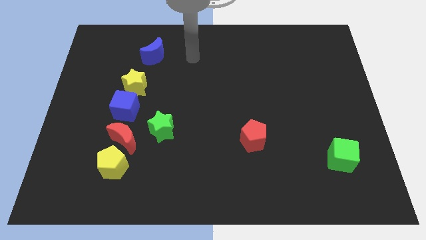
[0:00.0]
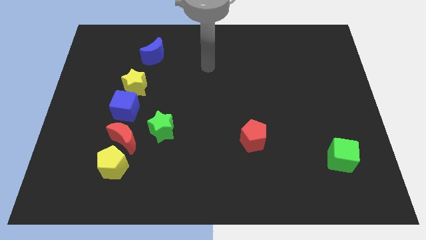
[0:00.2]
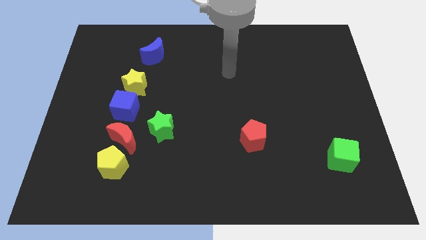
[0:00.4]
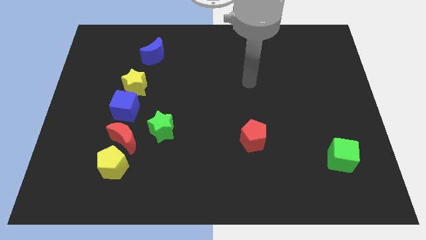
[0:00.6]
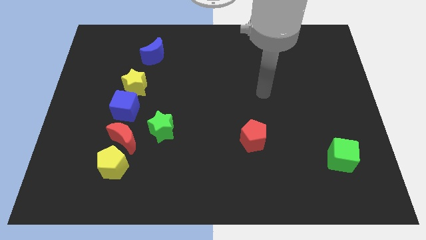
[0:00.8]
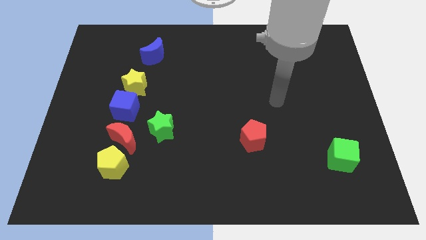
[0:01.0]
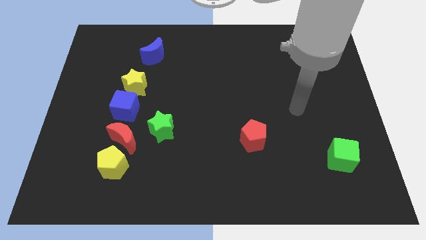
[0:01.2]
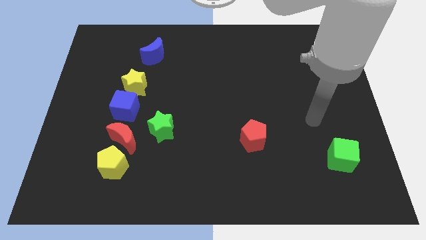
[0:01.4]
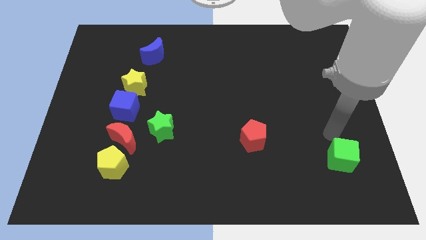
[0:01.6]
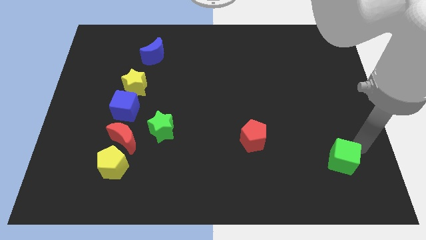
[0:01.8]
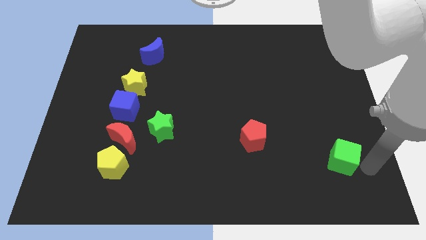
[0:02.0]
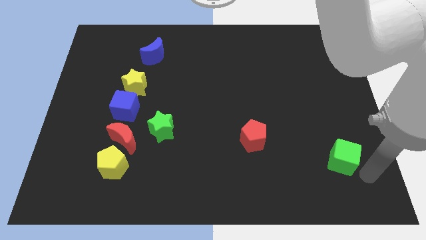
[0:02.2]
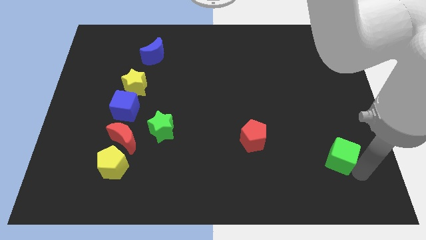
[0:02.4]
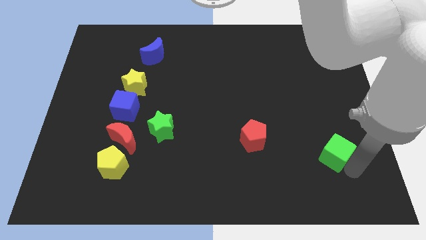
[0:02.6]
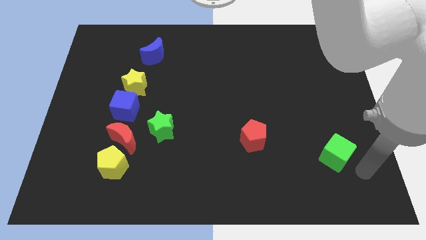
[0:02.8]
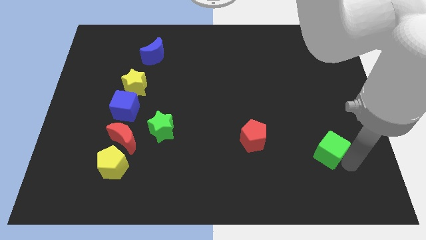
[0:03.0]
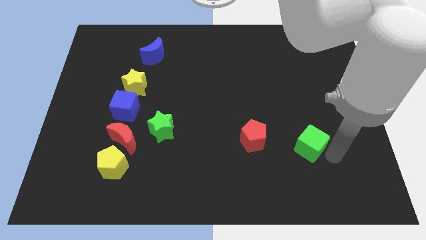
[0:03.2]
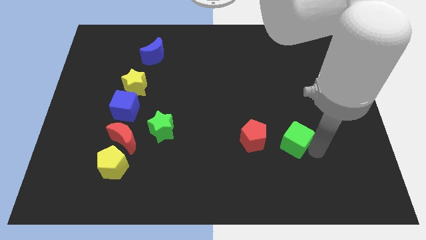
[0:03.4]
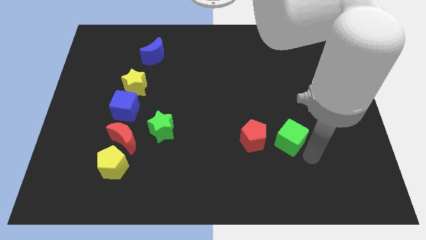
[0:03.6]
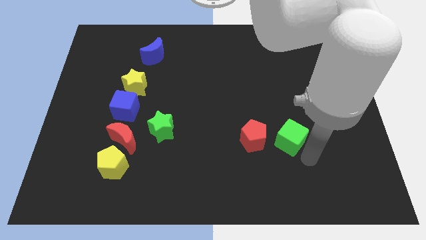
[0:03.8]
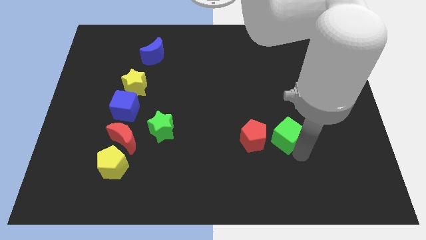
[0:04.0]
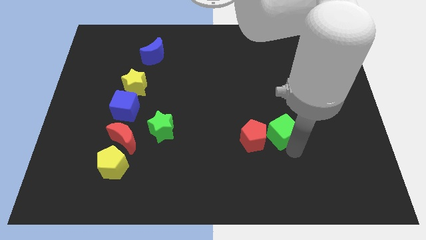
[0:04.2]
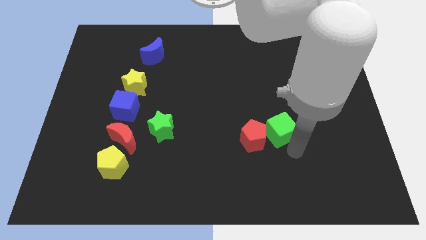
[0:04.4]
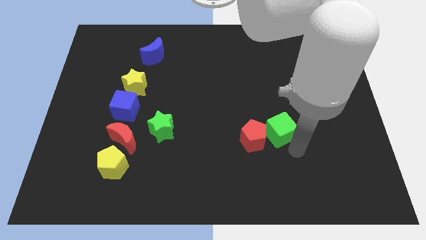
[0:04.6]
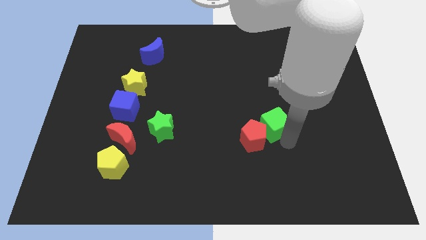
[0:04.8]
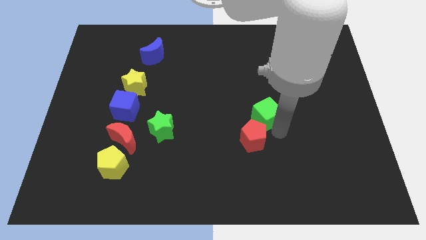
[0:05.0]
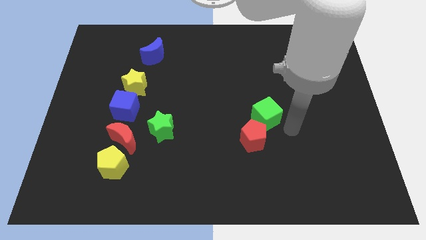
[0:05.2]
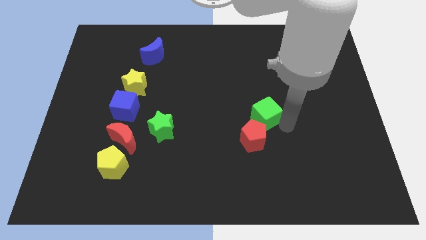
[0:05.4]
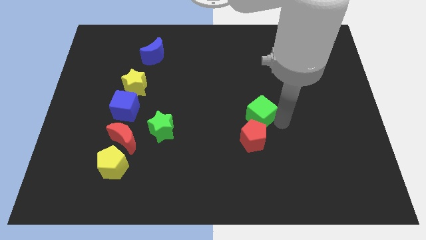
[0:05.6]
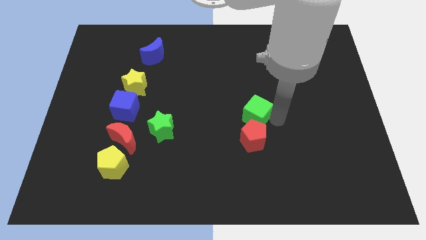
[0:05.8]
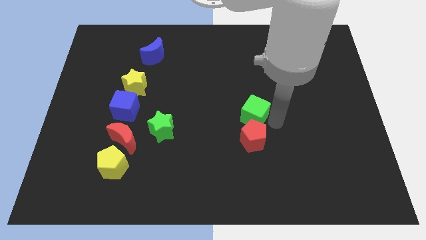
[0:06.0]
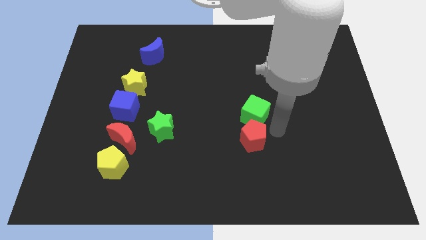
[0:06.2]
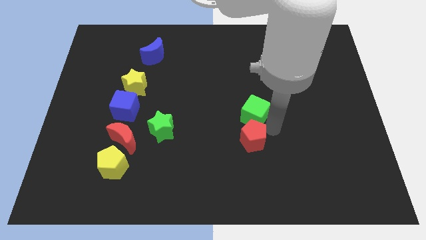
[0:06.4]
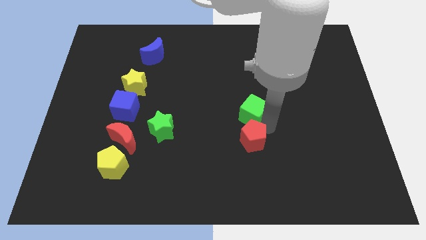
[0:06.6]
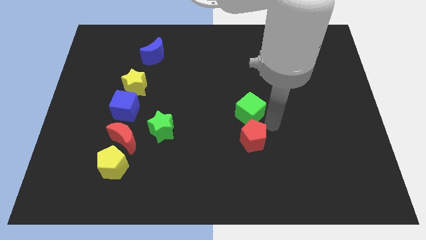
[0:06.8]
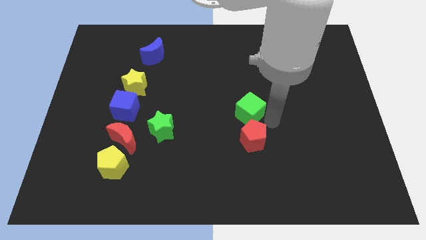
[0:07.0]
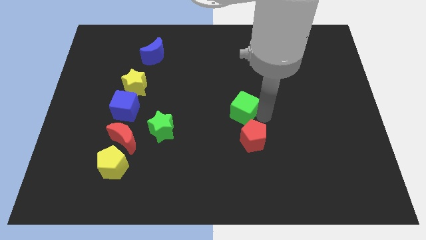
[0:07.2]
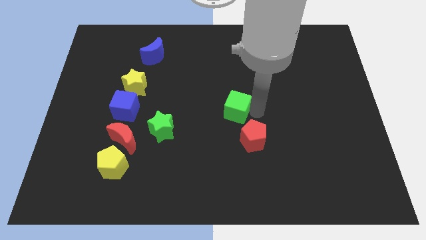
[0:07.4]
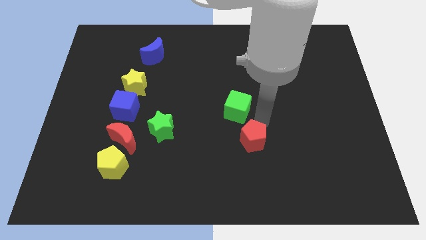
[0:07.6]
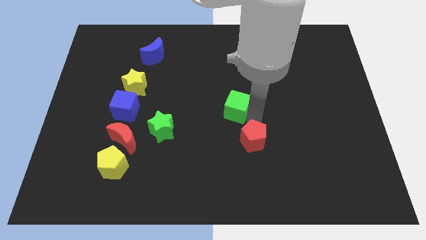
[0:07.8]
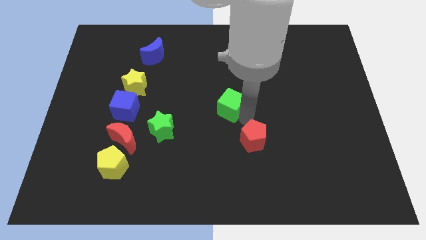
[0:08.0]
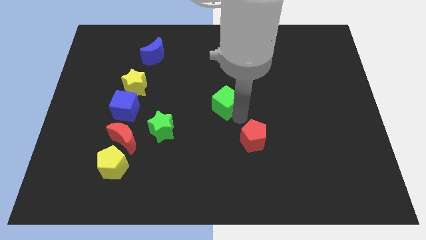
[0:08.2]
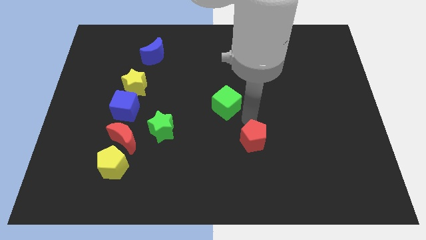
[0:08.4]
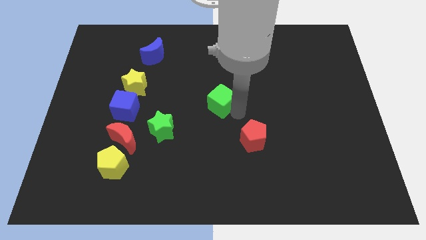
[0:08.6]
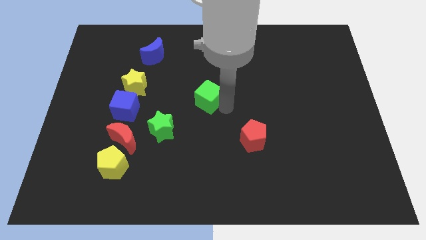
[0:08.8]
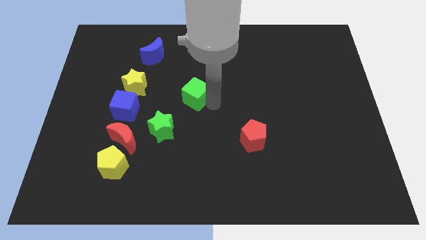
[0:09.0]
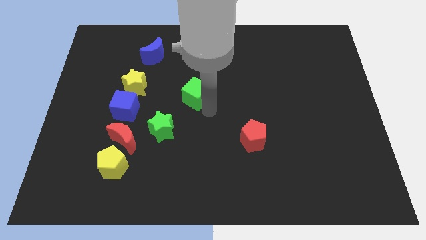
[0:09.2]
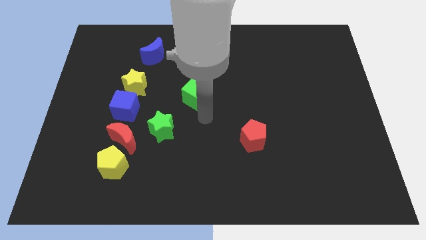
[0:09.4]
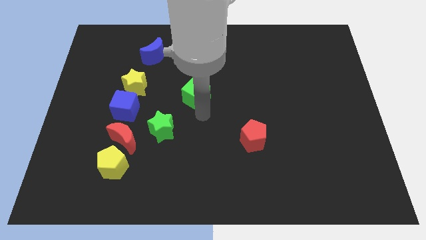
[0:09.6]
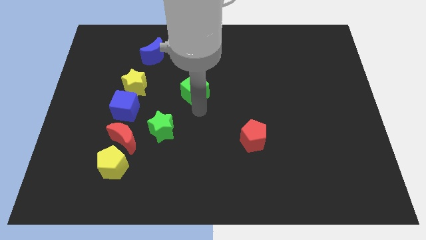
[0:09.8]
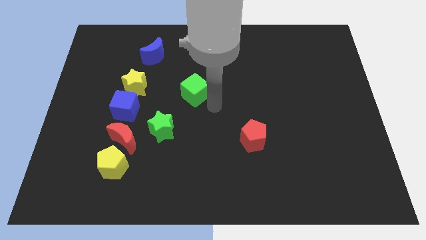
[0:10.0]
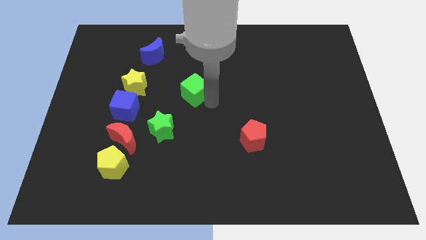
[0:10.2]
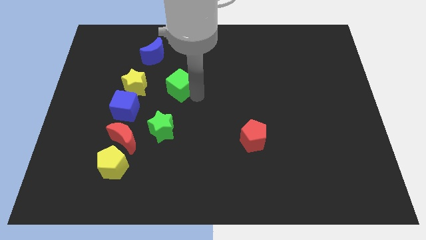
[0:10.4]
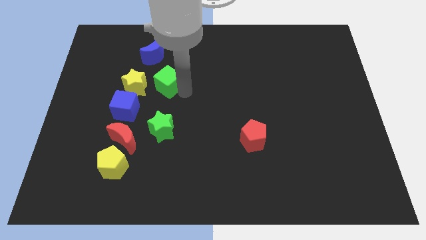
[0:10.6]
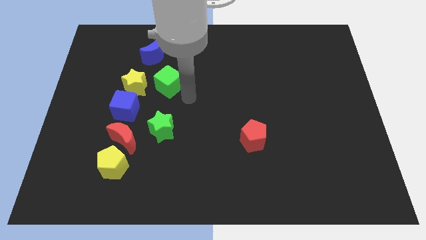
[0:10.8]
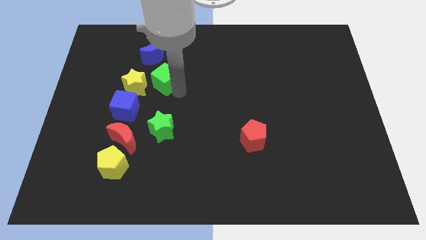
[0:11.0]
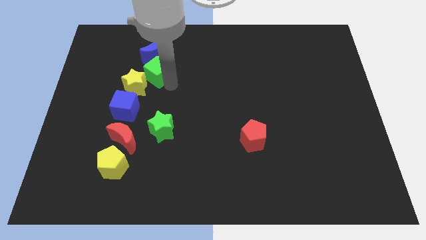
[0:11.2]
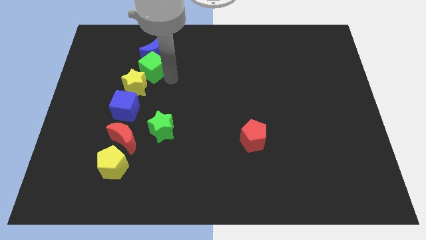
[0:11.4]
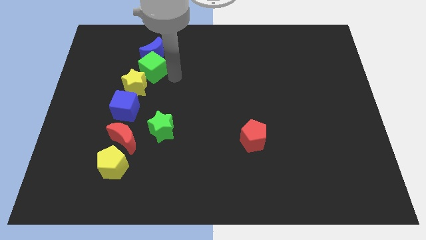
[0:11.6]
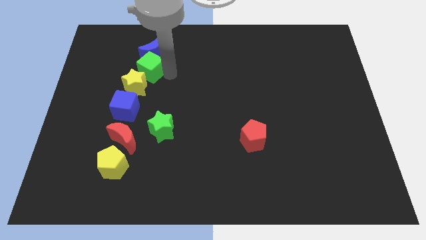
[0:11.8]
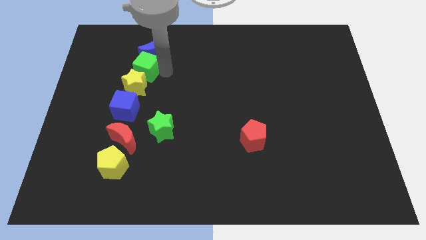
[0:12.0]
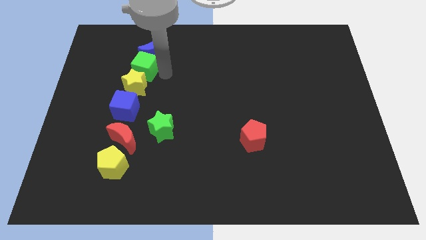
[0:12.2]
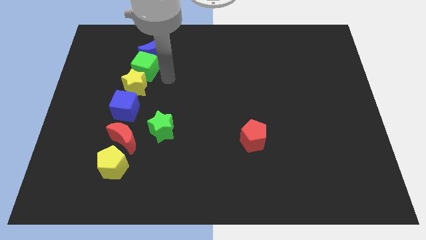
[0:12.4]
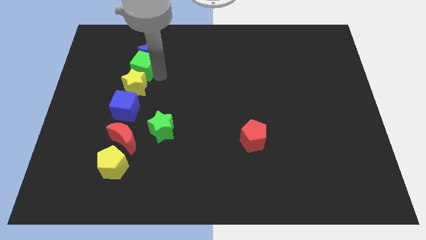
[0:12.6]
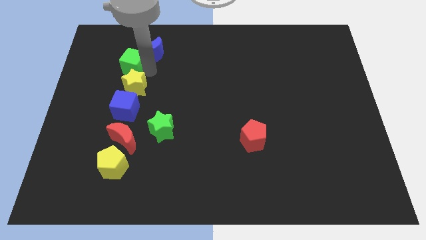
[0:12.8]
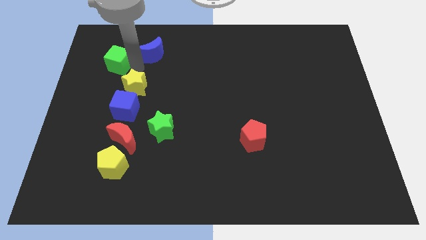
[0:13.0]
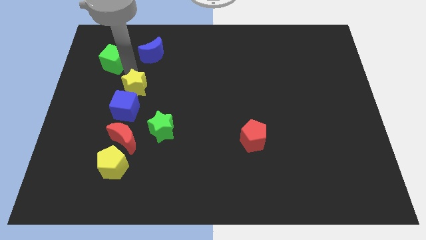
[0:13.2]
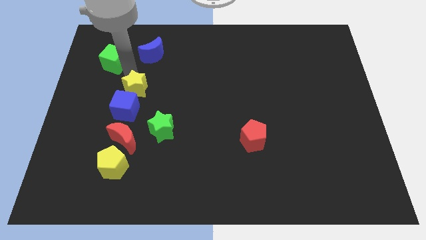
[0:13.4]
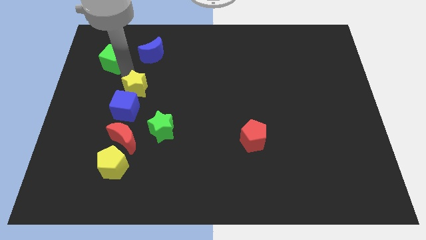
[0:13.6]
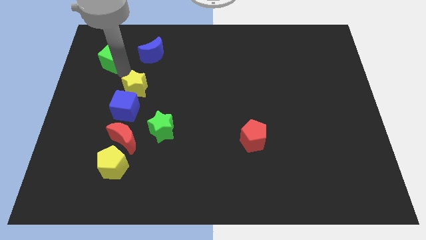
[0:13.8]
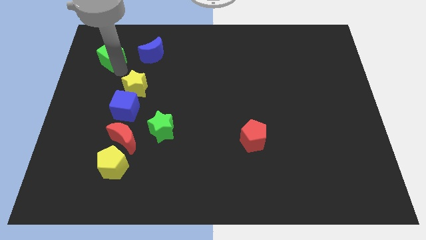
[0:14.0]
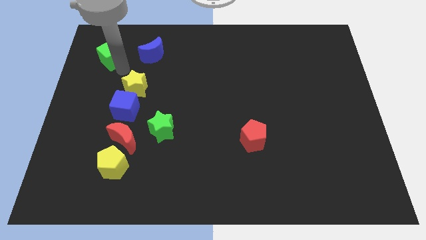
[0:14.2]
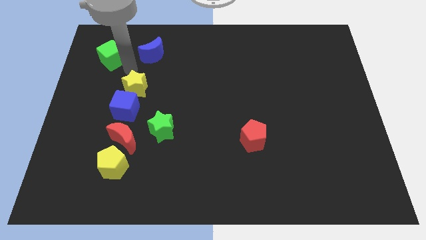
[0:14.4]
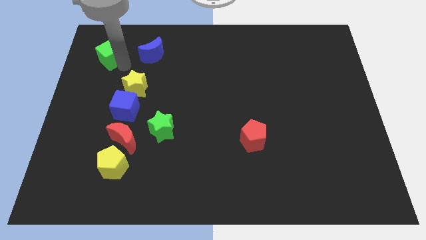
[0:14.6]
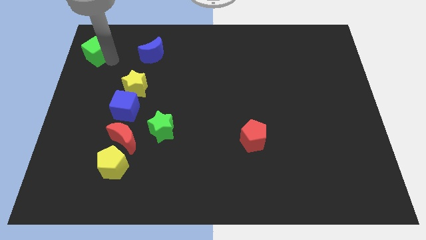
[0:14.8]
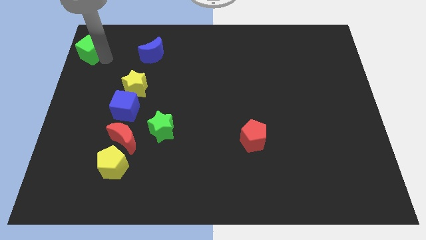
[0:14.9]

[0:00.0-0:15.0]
move the green cube to the top left of the board
